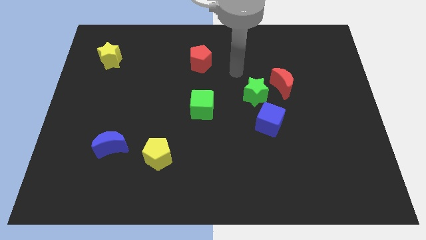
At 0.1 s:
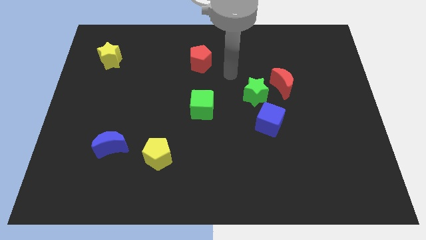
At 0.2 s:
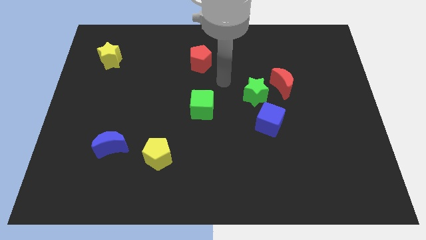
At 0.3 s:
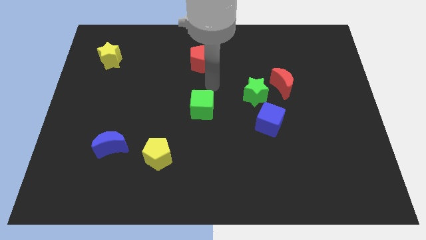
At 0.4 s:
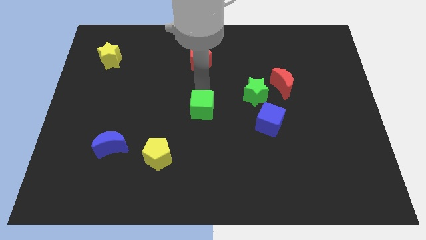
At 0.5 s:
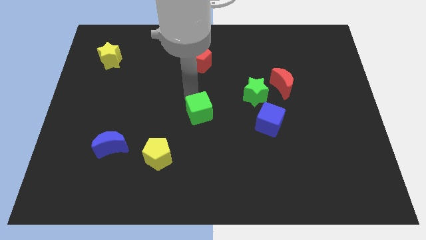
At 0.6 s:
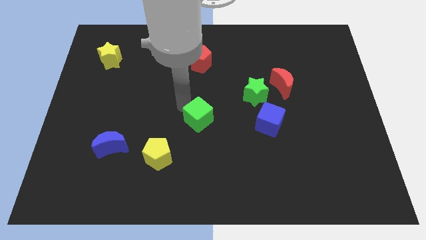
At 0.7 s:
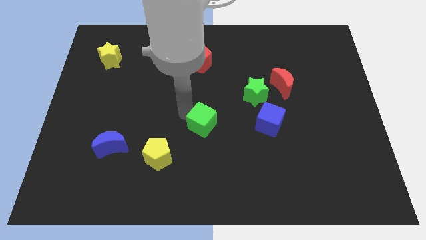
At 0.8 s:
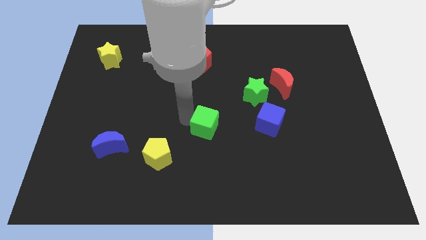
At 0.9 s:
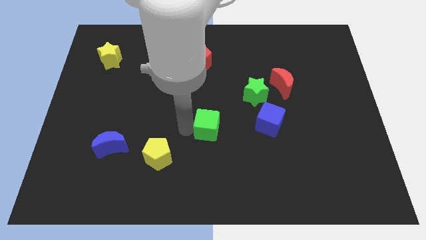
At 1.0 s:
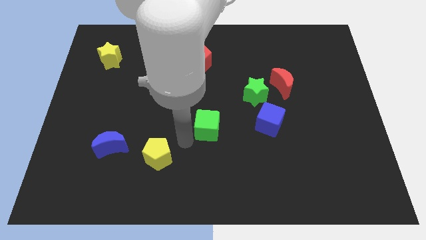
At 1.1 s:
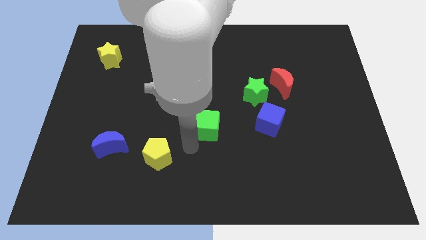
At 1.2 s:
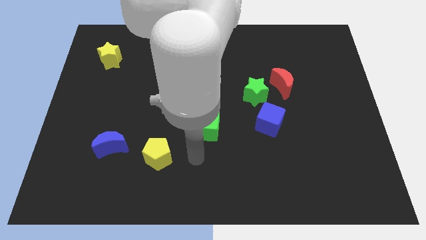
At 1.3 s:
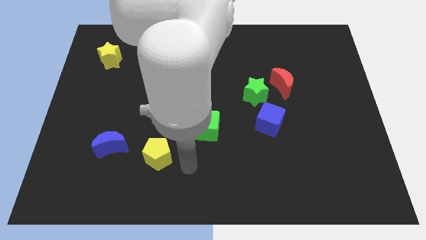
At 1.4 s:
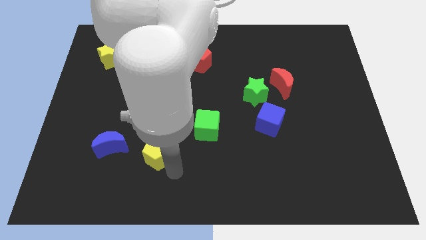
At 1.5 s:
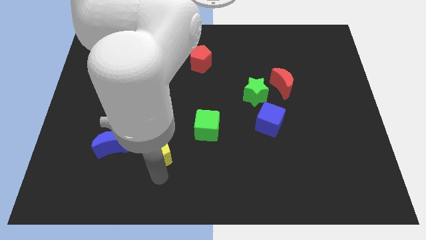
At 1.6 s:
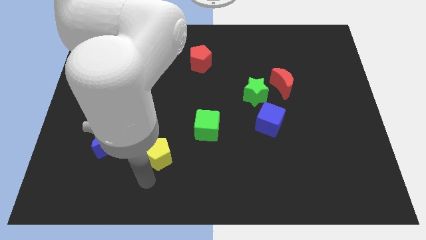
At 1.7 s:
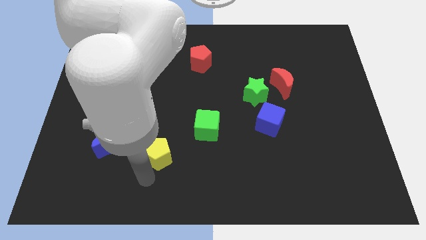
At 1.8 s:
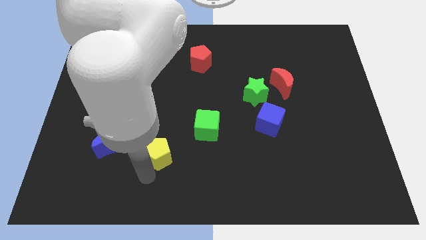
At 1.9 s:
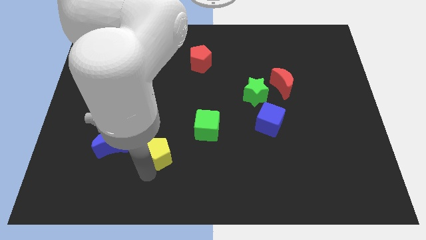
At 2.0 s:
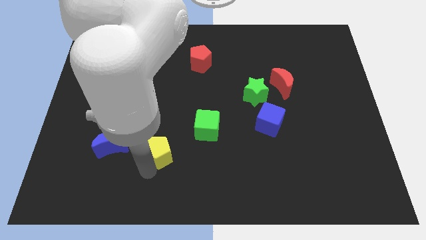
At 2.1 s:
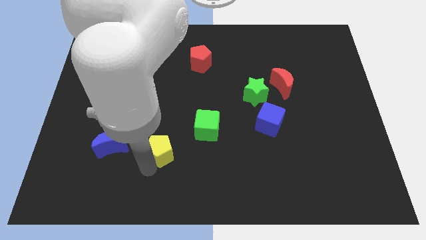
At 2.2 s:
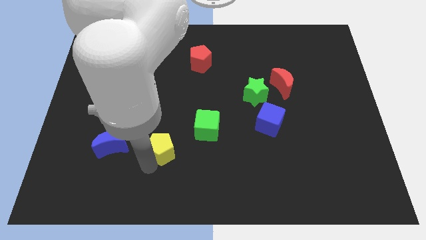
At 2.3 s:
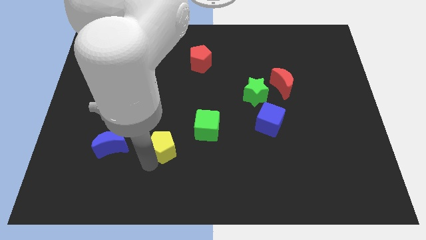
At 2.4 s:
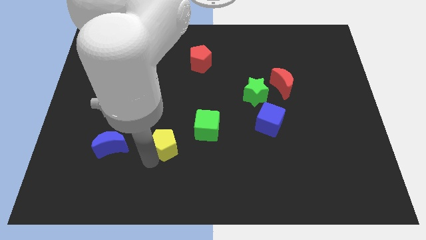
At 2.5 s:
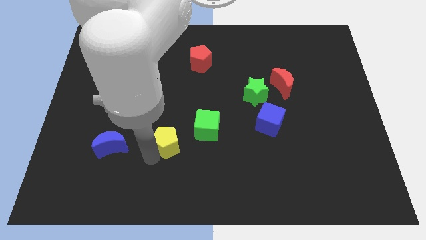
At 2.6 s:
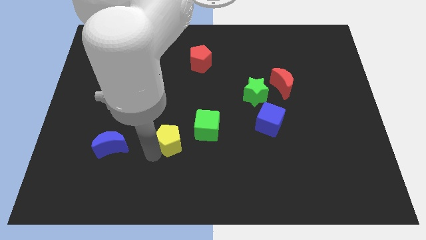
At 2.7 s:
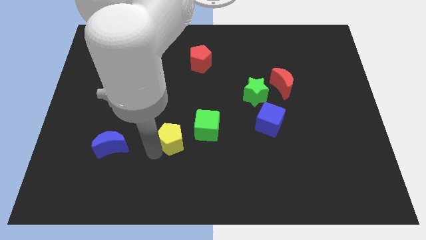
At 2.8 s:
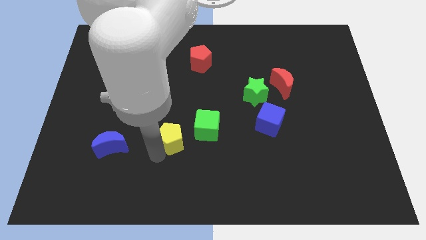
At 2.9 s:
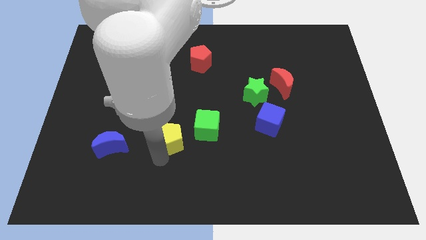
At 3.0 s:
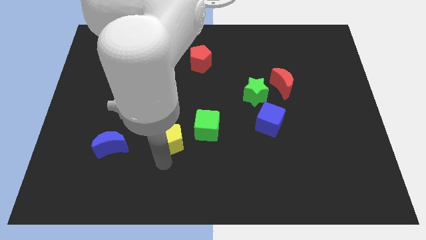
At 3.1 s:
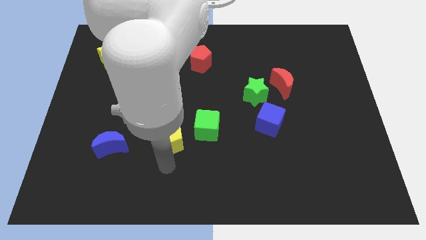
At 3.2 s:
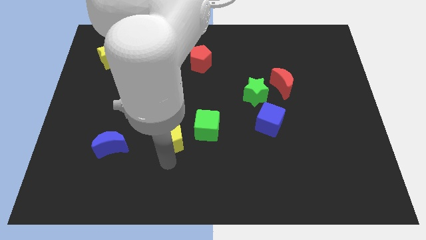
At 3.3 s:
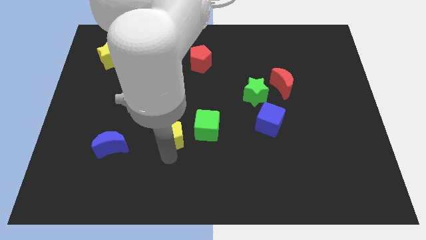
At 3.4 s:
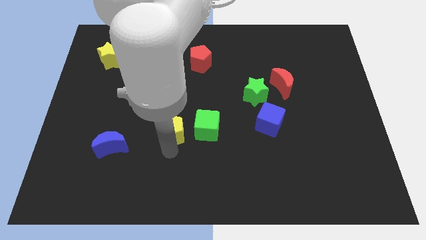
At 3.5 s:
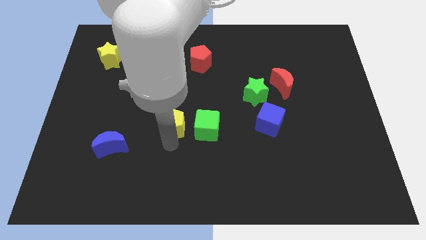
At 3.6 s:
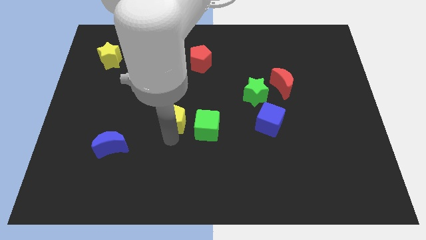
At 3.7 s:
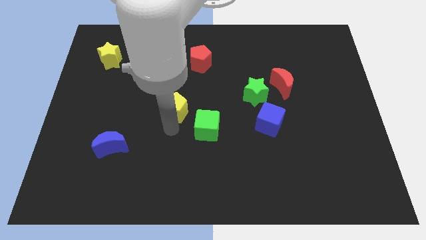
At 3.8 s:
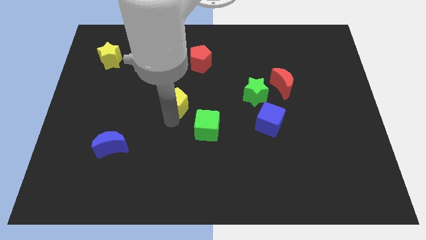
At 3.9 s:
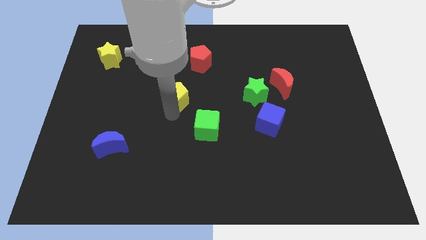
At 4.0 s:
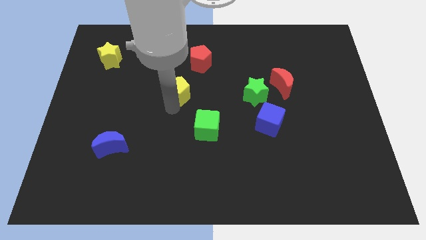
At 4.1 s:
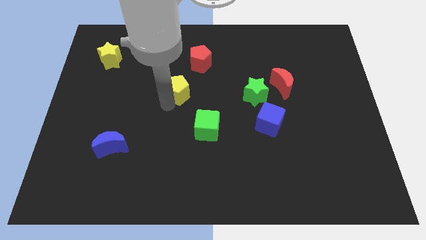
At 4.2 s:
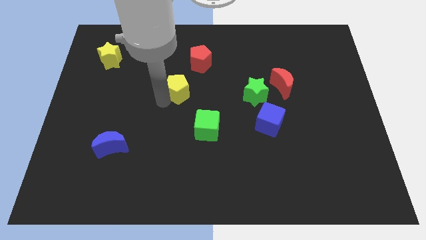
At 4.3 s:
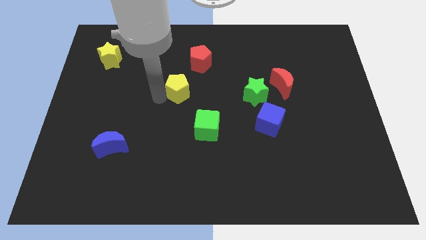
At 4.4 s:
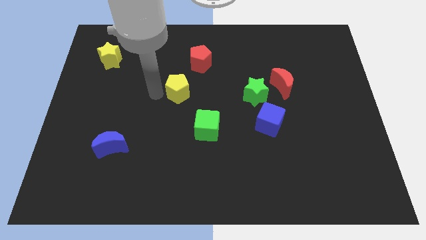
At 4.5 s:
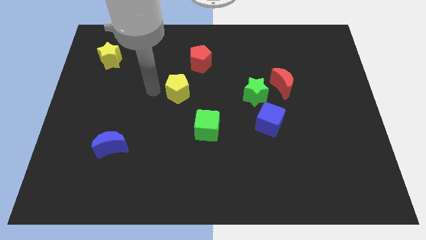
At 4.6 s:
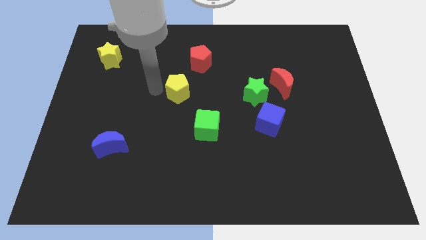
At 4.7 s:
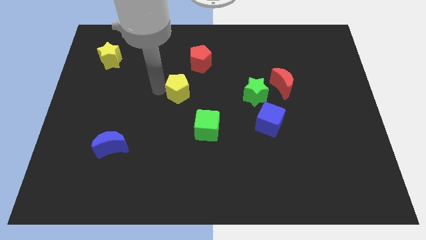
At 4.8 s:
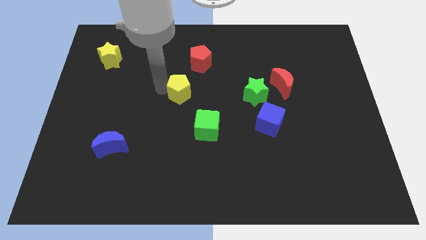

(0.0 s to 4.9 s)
move the yellow pentagon to the bottom of the red pentagon

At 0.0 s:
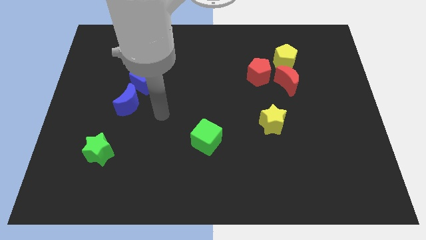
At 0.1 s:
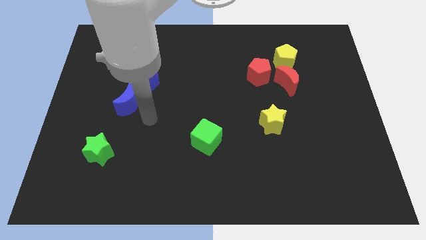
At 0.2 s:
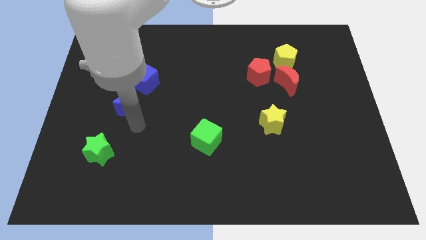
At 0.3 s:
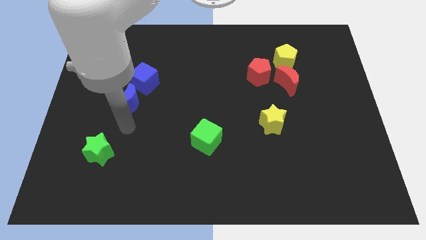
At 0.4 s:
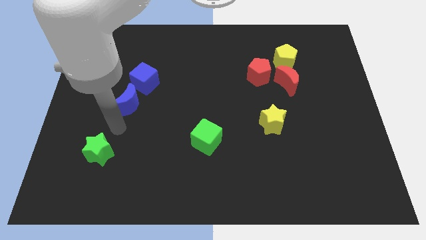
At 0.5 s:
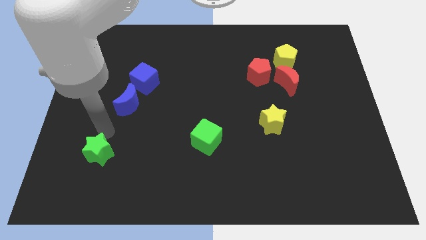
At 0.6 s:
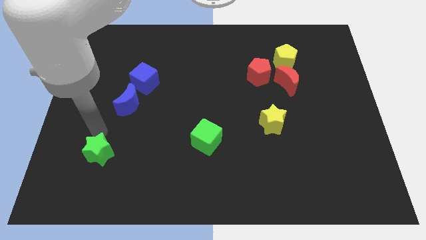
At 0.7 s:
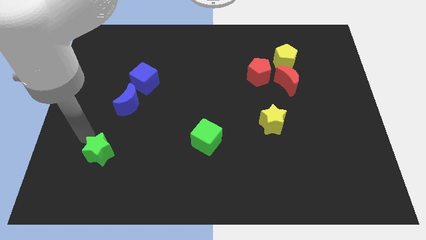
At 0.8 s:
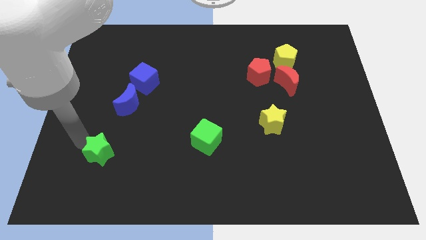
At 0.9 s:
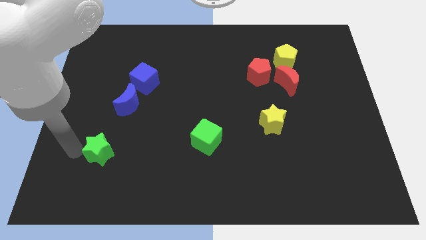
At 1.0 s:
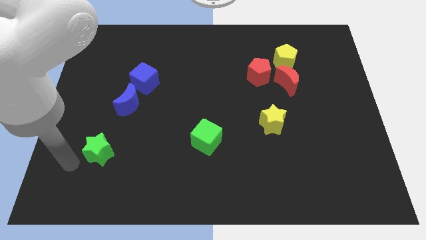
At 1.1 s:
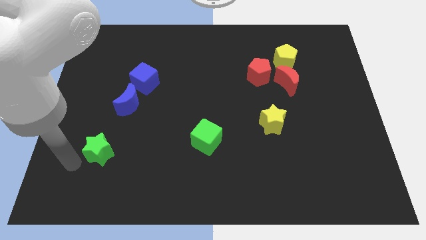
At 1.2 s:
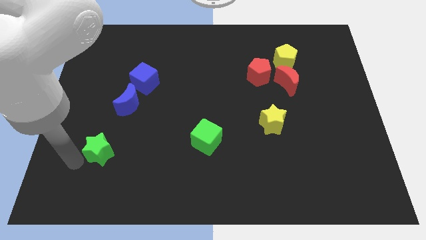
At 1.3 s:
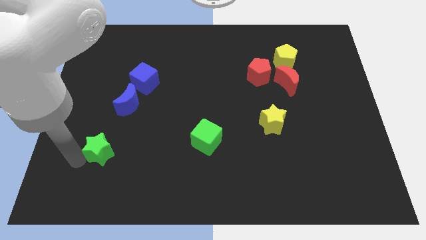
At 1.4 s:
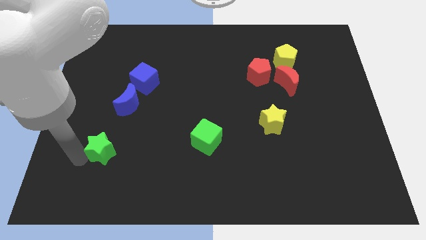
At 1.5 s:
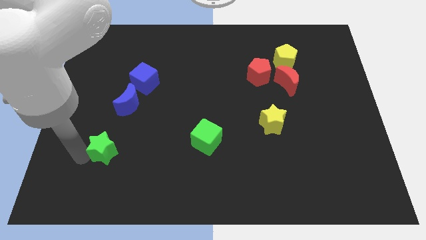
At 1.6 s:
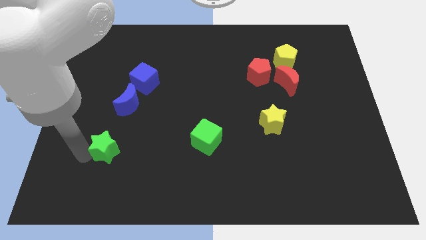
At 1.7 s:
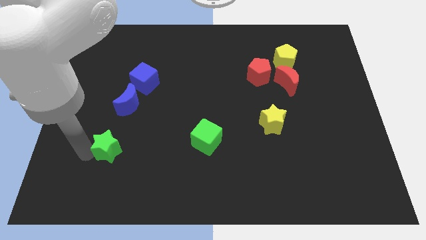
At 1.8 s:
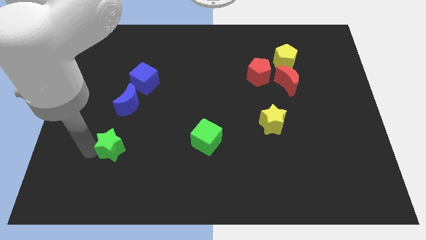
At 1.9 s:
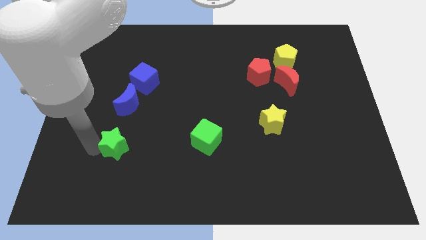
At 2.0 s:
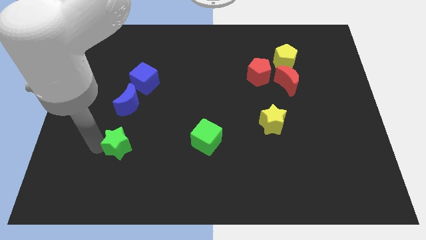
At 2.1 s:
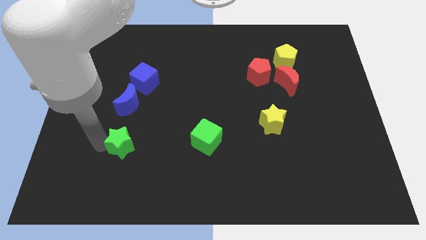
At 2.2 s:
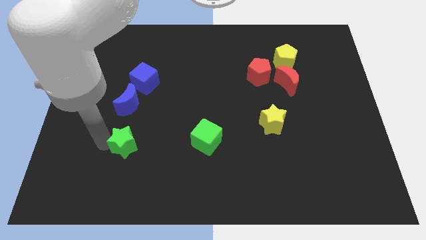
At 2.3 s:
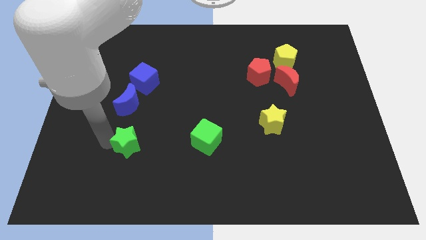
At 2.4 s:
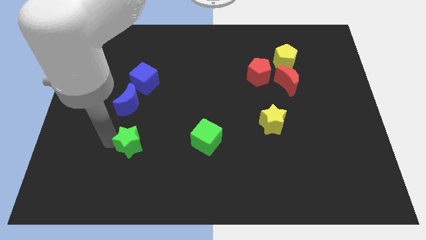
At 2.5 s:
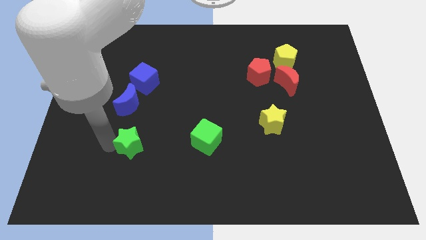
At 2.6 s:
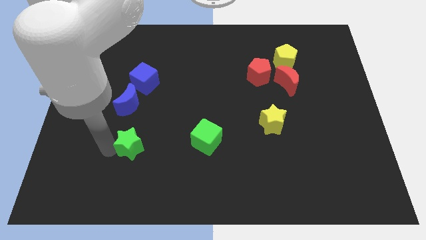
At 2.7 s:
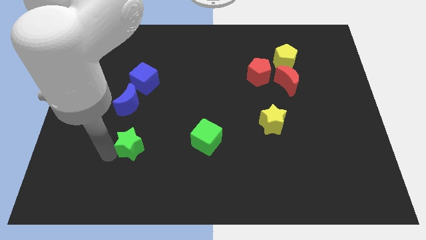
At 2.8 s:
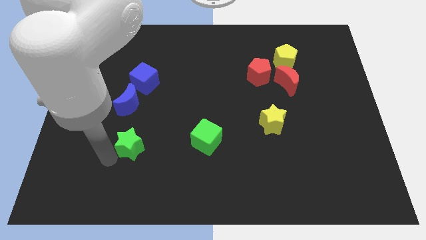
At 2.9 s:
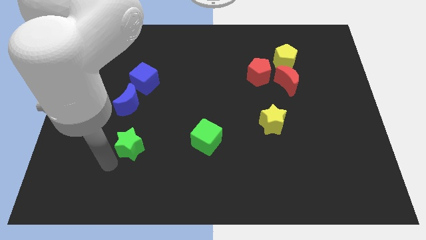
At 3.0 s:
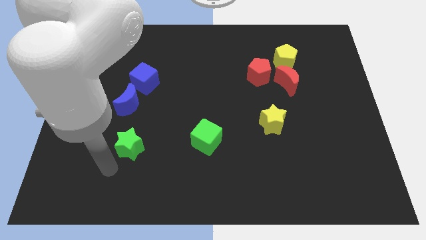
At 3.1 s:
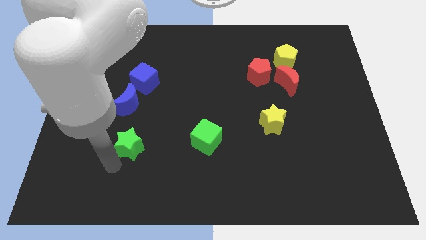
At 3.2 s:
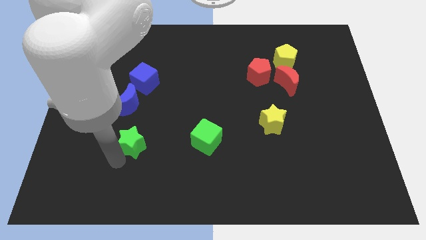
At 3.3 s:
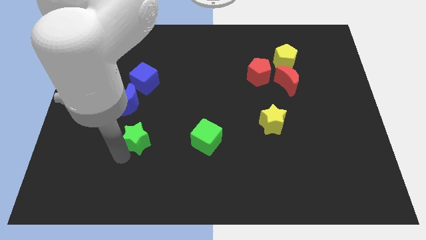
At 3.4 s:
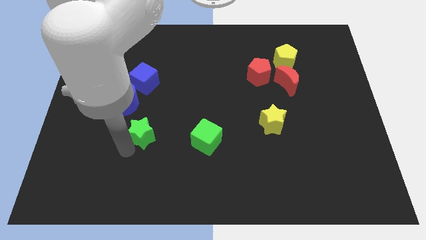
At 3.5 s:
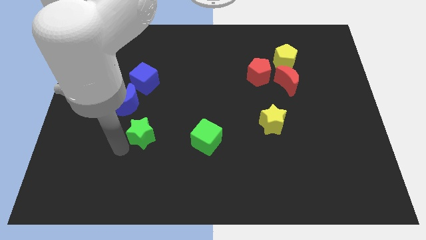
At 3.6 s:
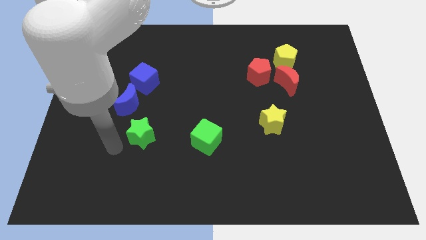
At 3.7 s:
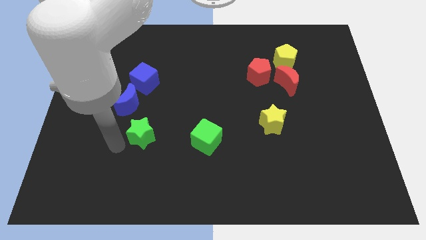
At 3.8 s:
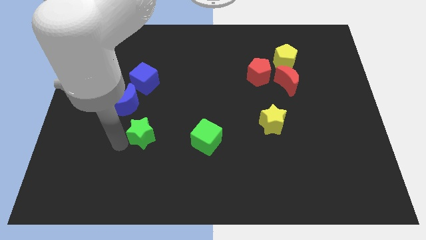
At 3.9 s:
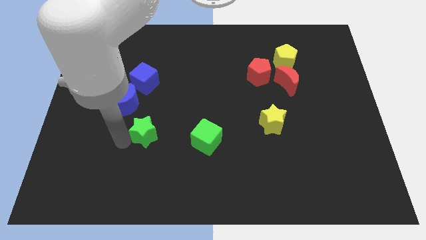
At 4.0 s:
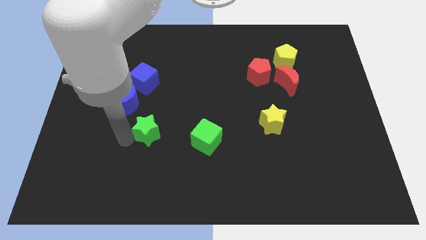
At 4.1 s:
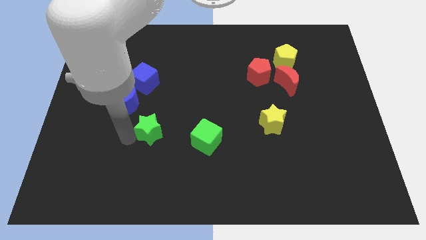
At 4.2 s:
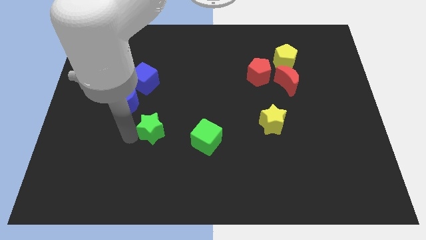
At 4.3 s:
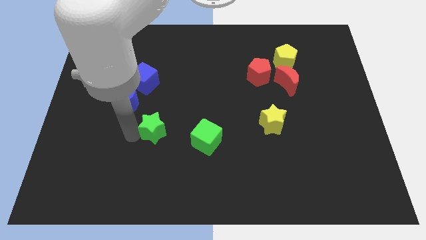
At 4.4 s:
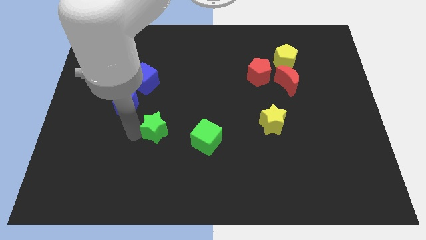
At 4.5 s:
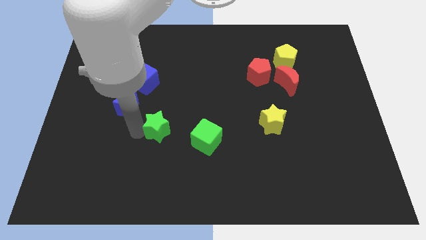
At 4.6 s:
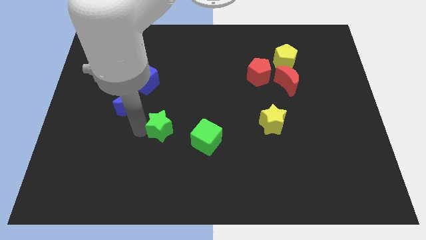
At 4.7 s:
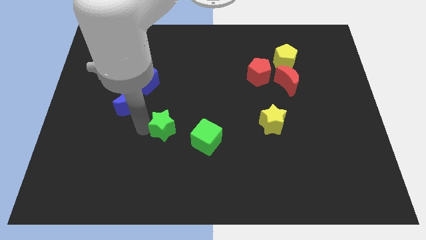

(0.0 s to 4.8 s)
move the green star diagonally up and to the left of the green cube
